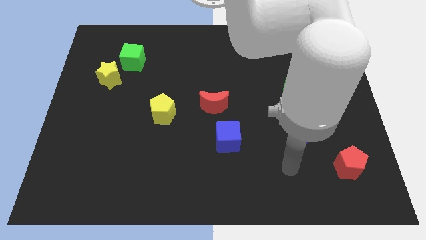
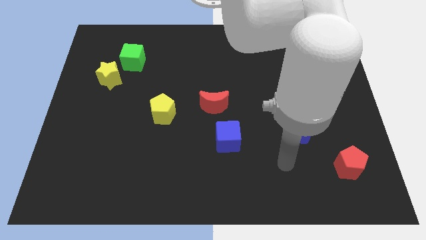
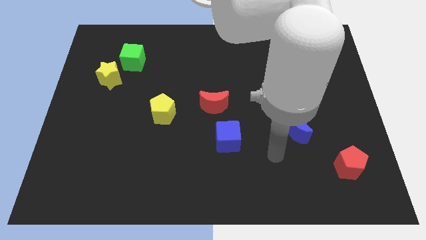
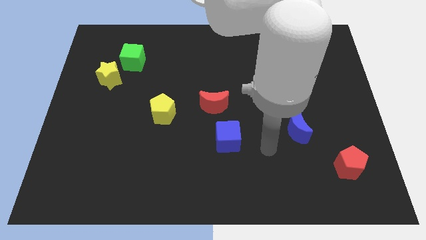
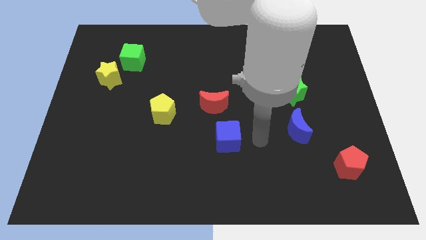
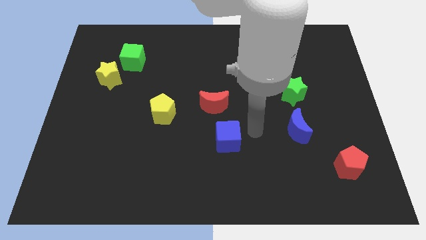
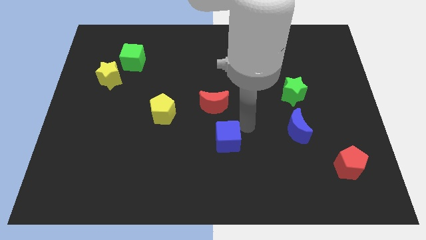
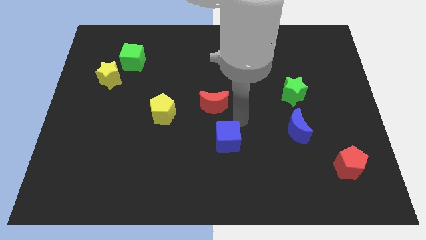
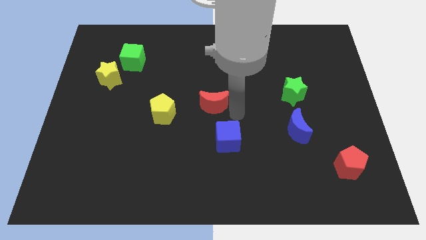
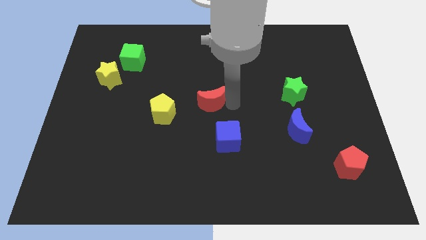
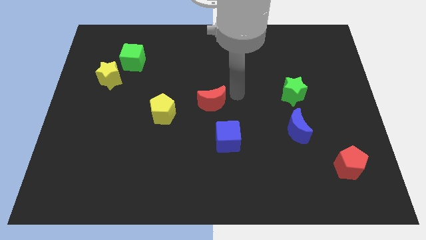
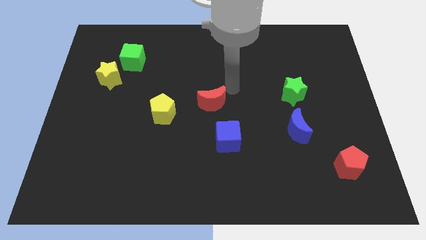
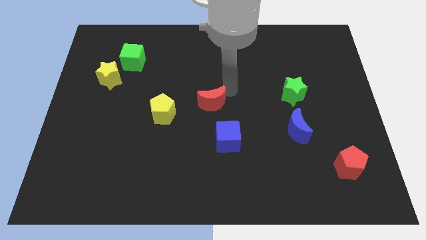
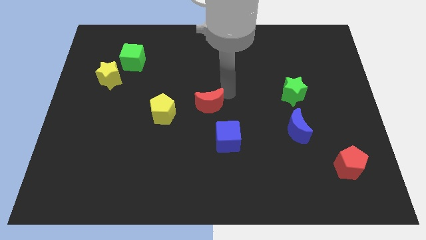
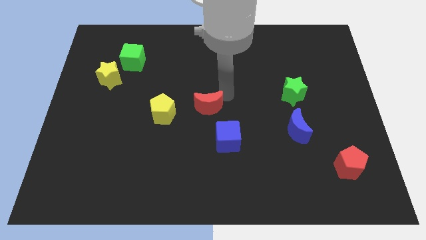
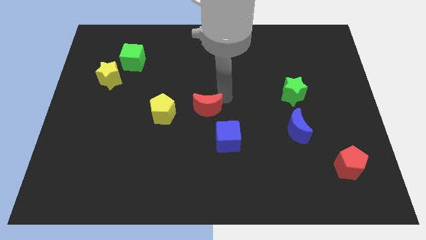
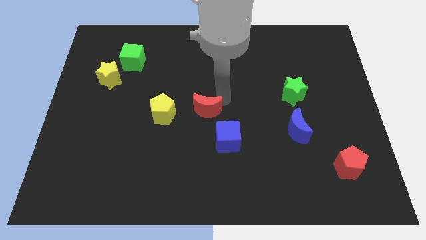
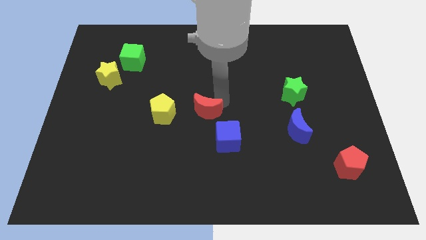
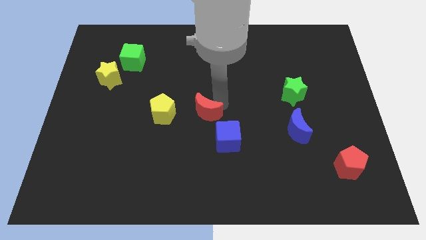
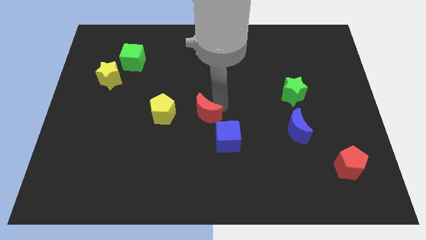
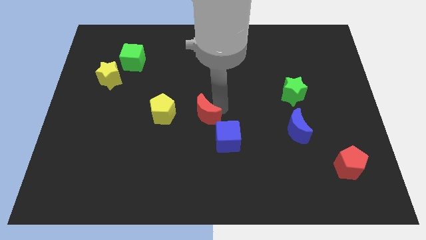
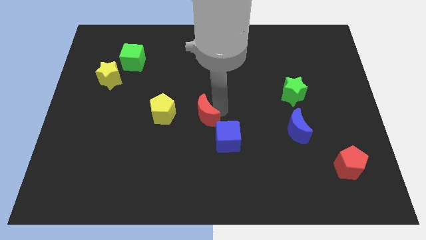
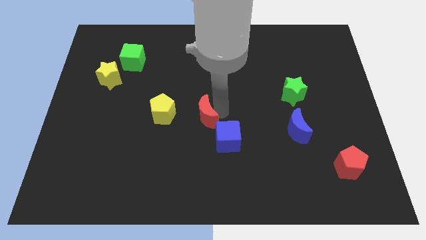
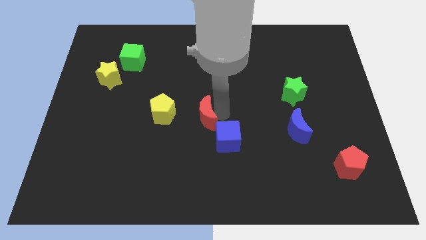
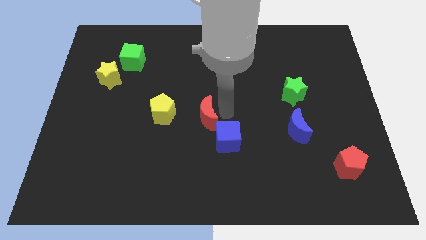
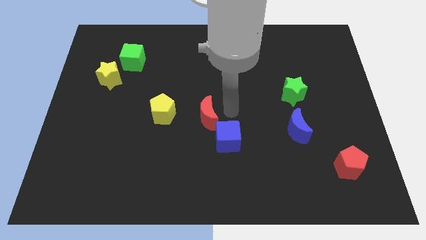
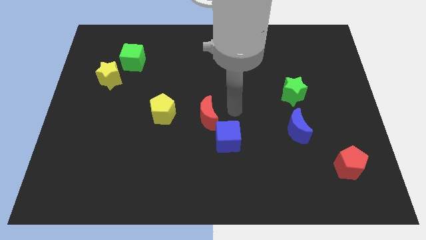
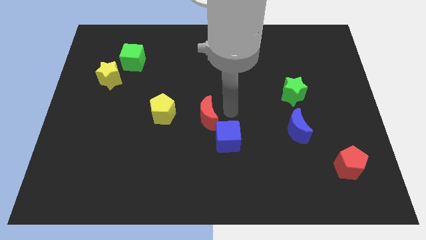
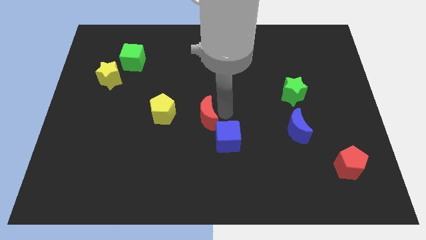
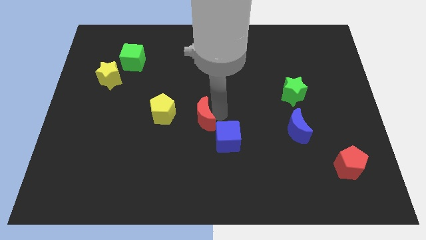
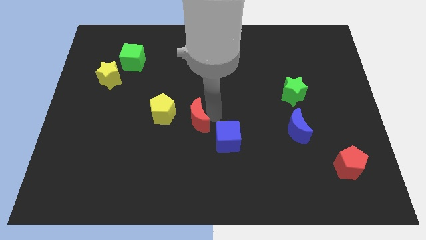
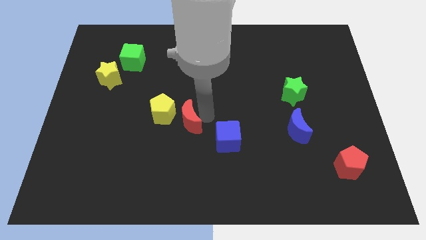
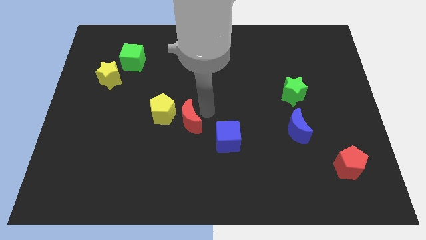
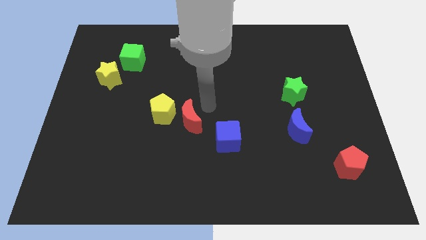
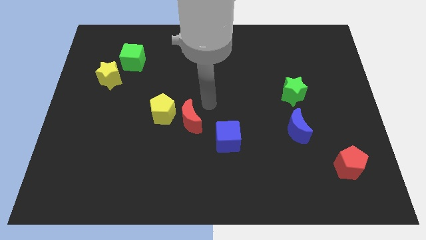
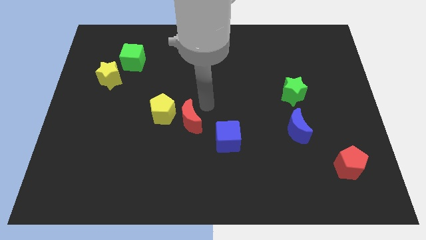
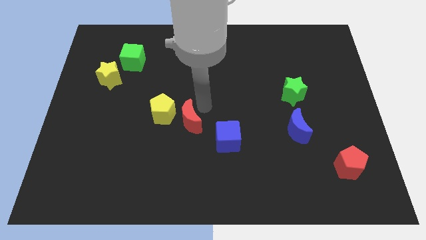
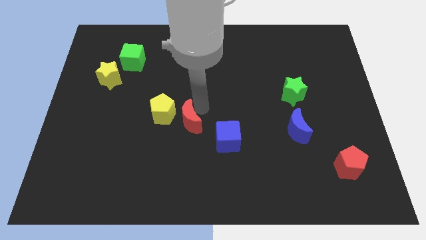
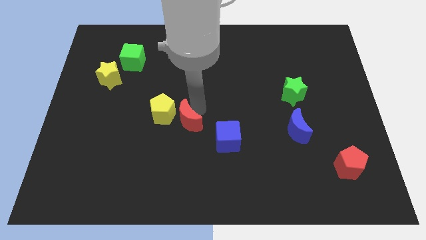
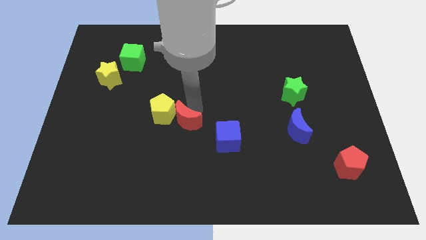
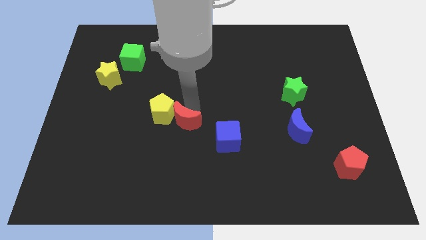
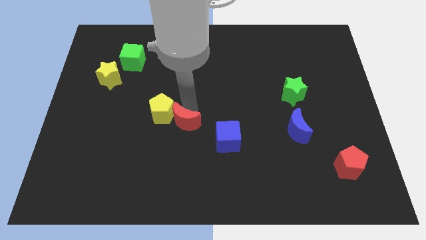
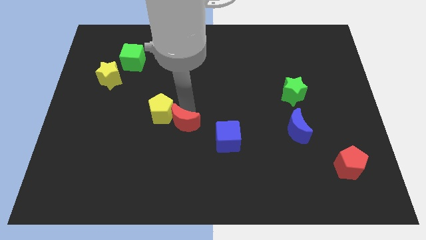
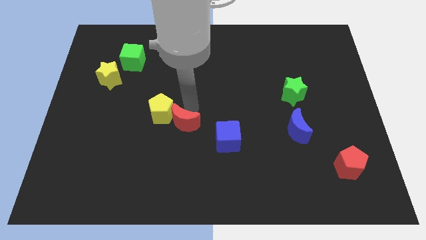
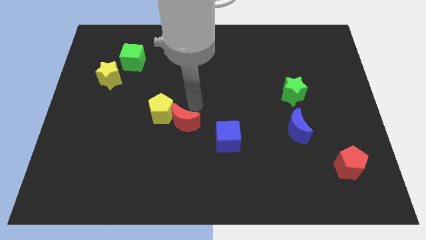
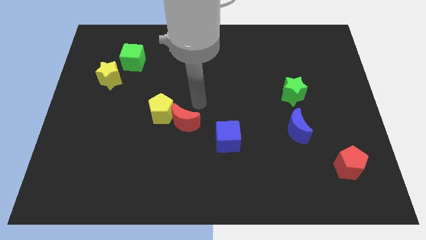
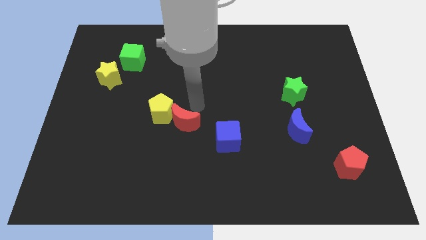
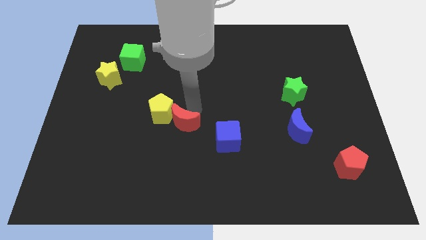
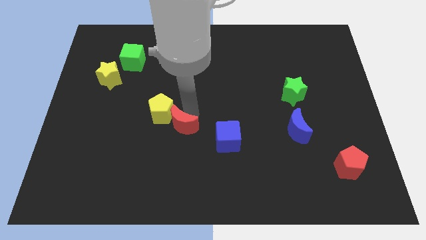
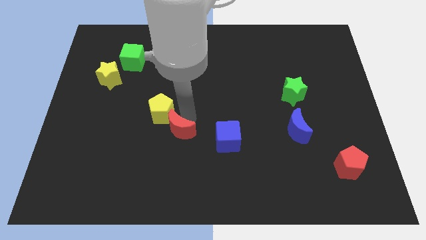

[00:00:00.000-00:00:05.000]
move the red moon to the bottom side of the yellow pentagon

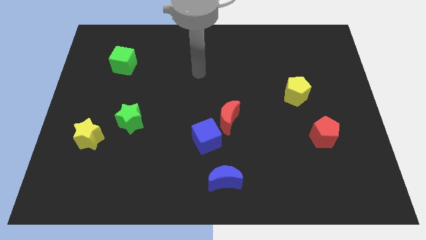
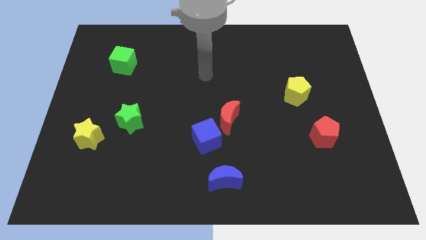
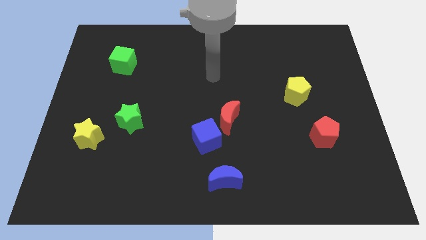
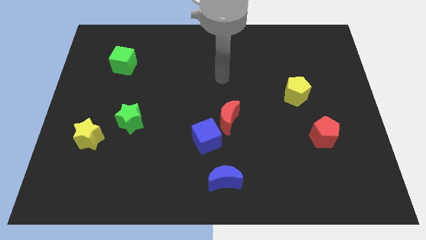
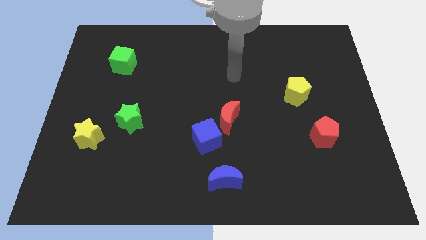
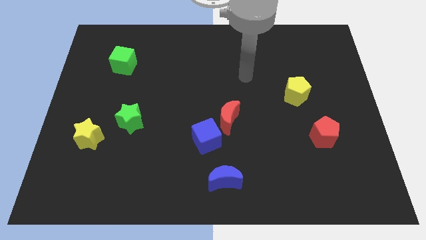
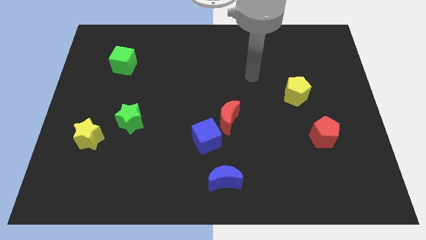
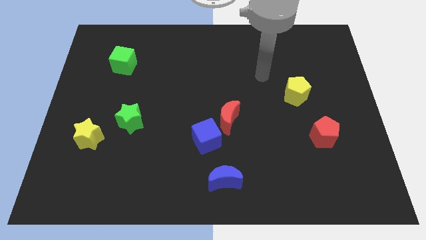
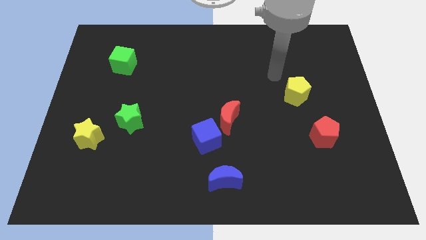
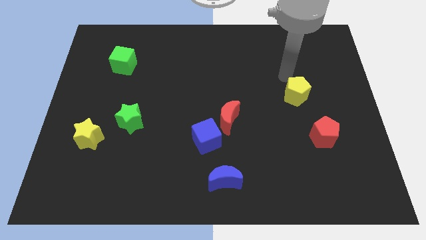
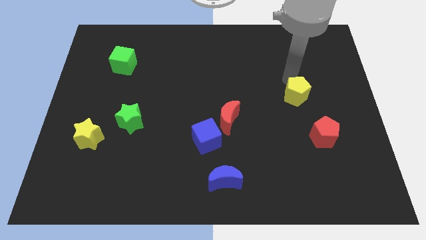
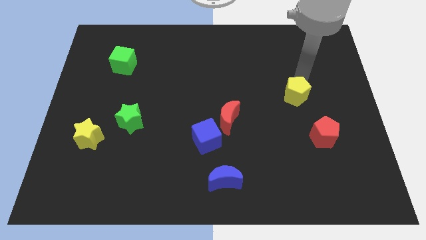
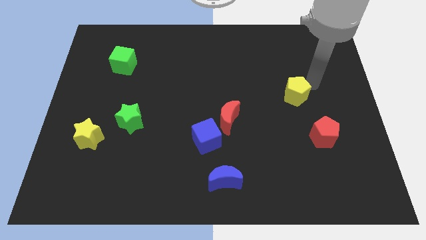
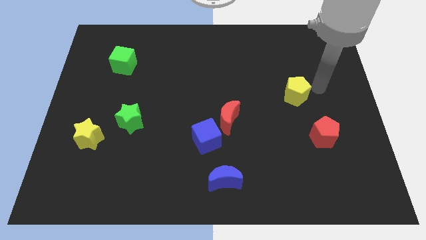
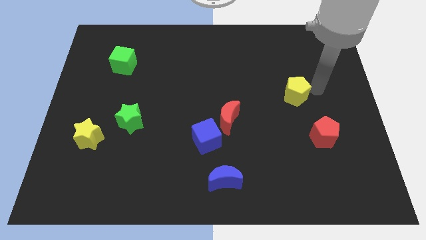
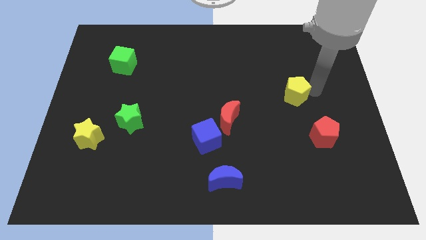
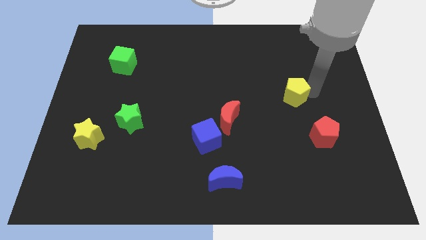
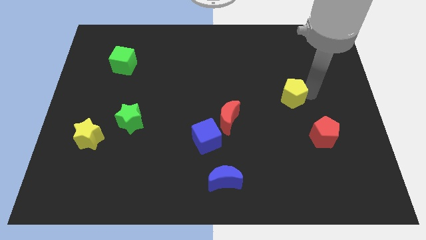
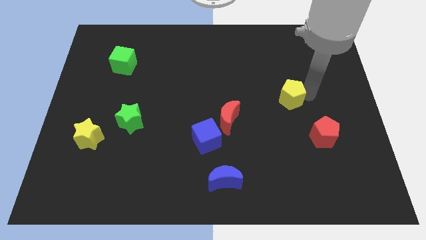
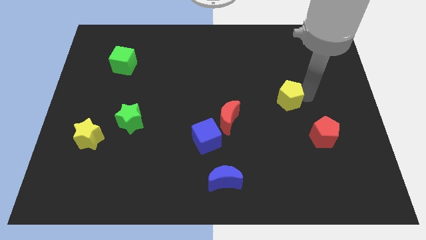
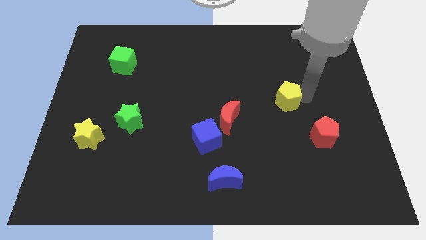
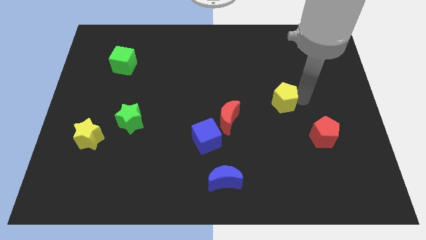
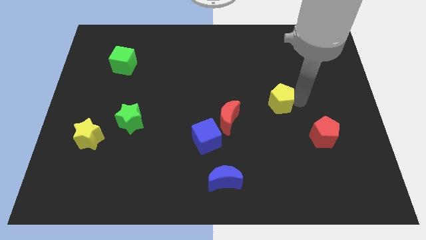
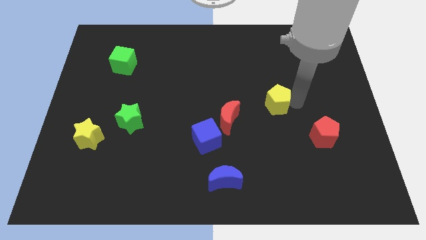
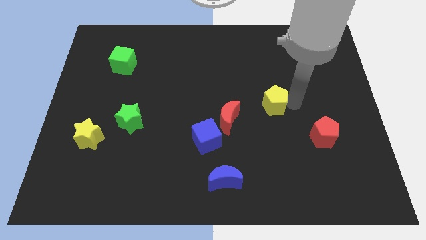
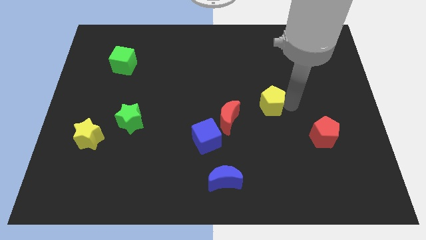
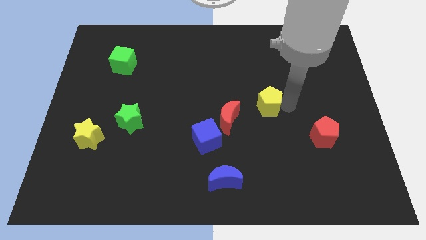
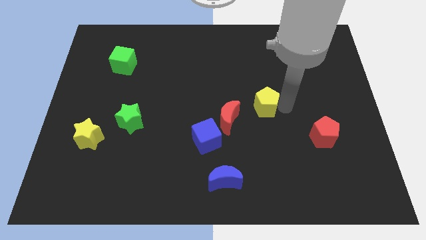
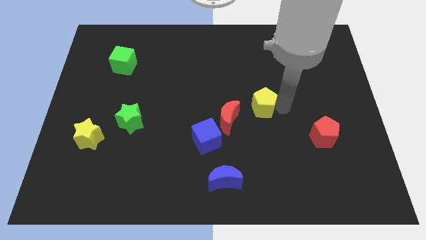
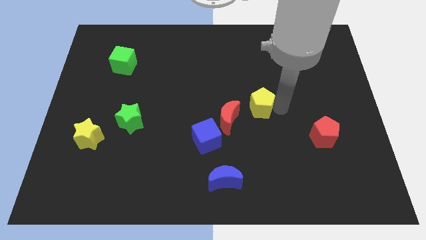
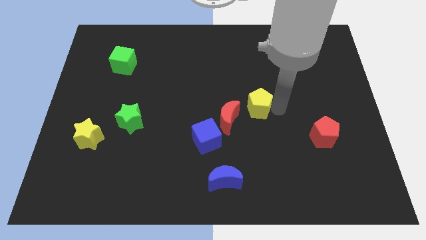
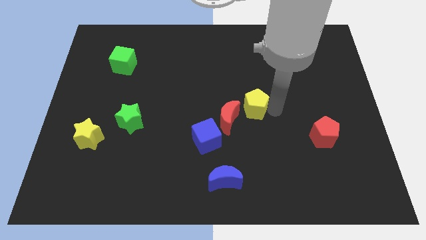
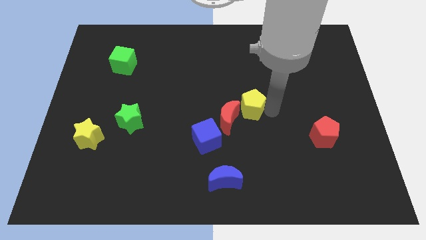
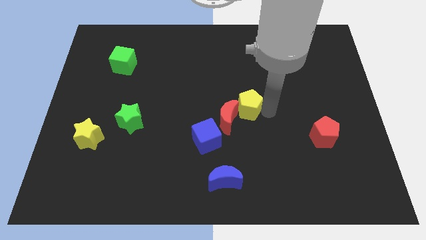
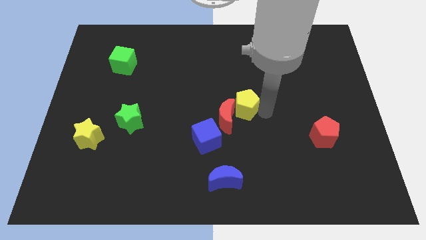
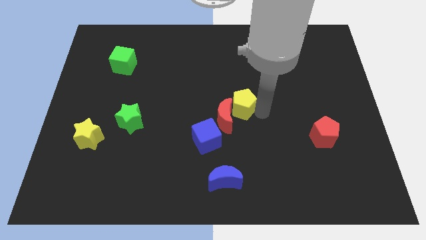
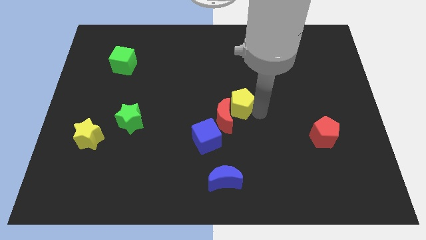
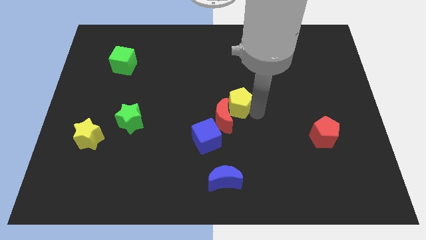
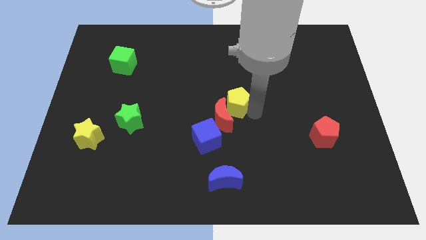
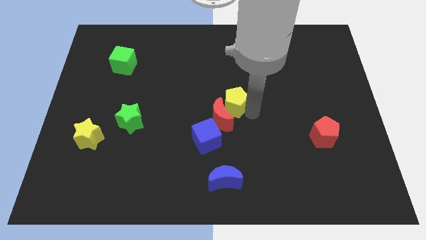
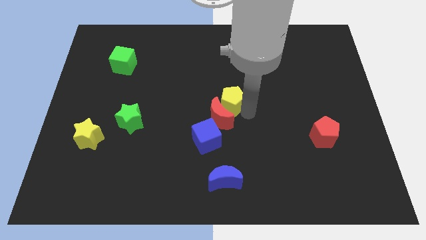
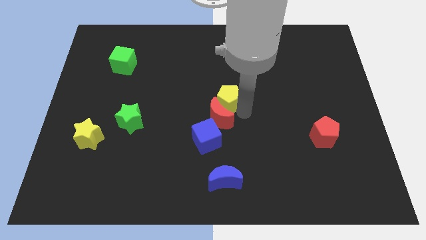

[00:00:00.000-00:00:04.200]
push the yellow pentagon to the top left of the red moon
